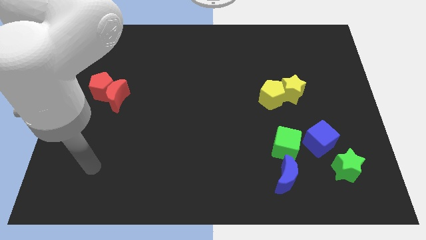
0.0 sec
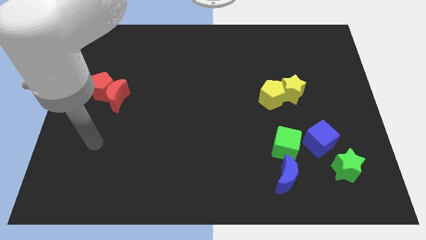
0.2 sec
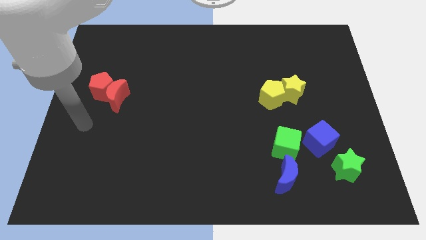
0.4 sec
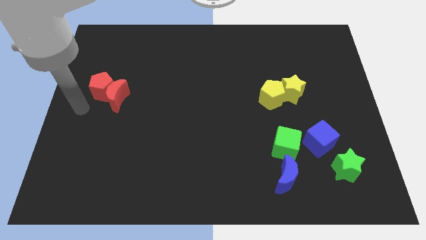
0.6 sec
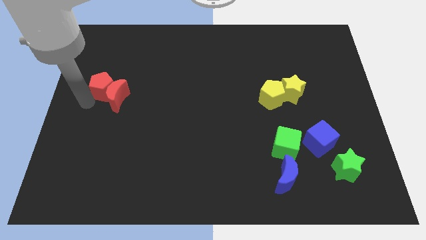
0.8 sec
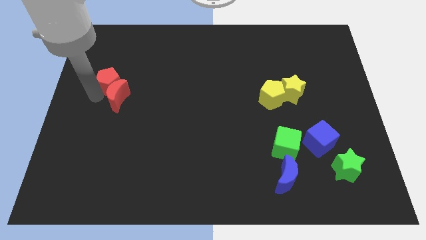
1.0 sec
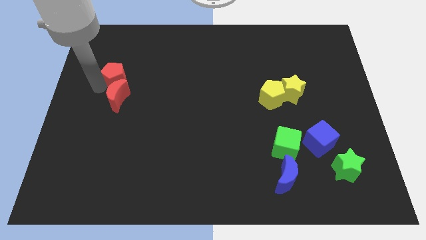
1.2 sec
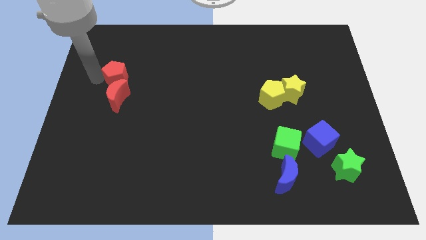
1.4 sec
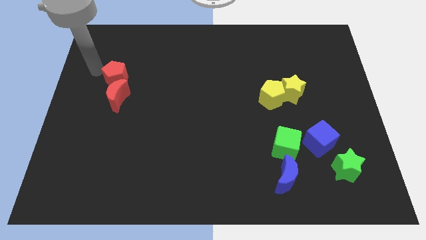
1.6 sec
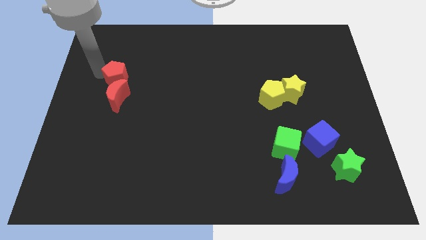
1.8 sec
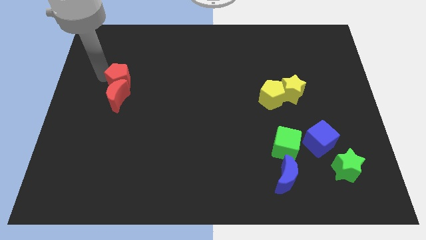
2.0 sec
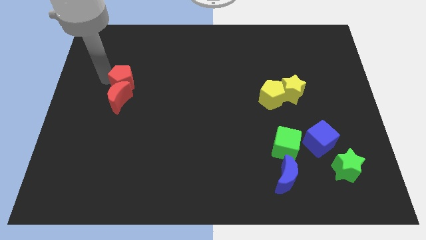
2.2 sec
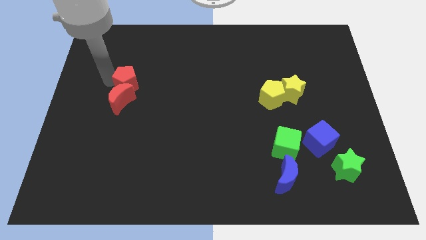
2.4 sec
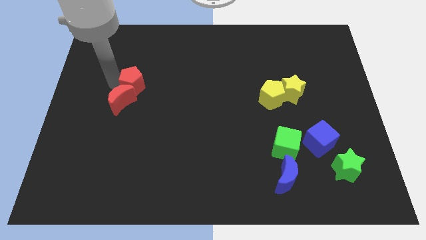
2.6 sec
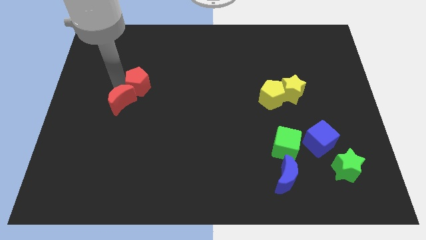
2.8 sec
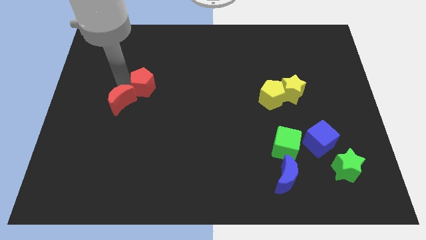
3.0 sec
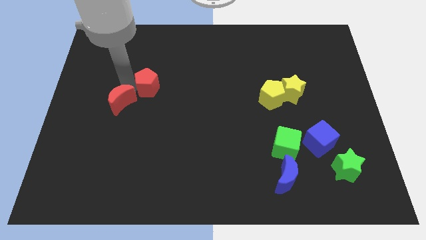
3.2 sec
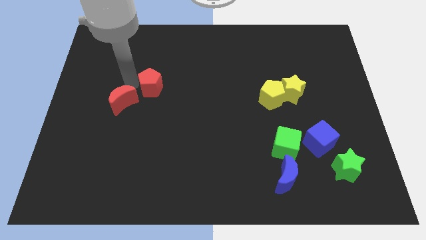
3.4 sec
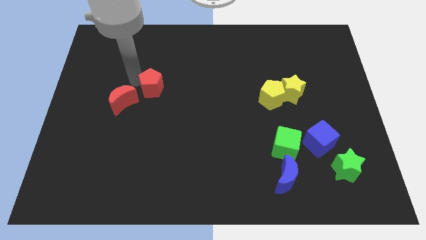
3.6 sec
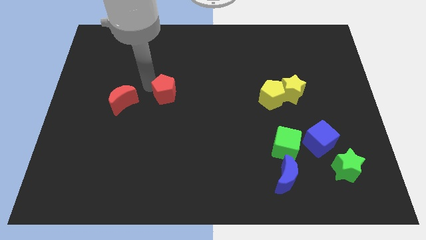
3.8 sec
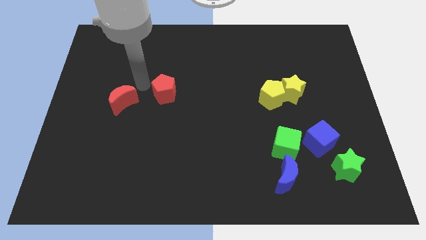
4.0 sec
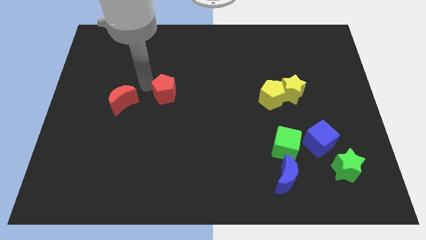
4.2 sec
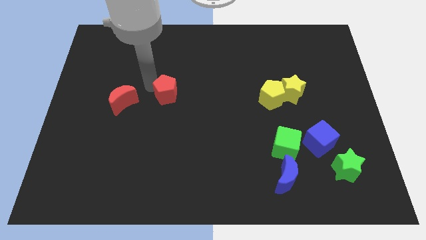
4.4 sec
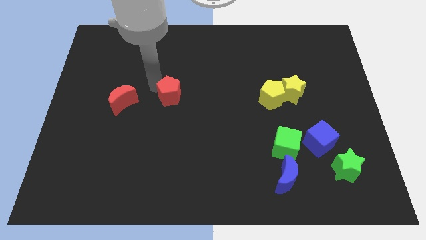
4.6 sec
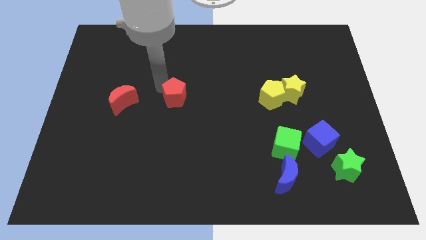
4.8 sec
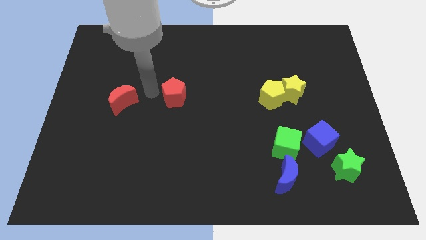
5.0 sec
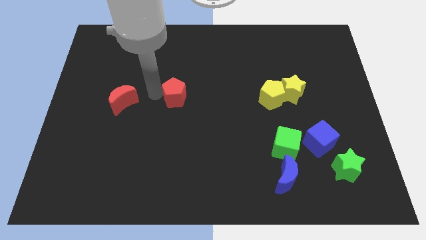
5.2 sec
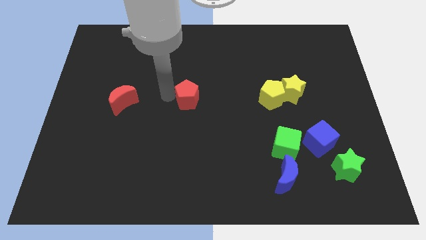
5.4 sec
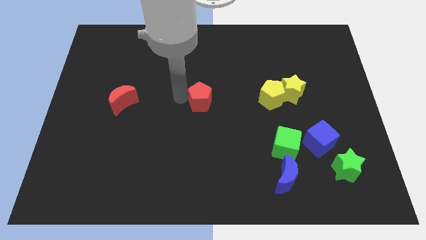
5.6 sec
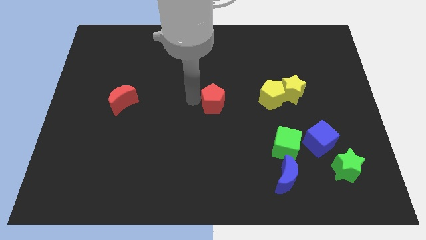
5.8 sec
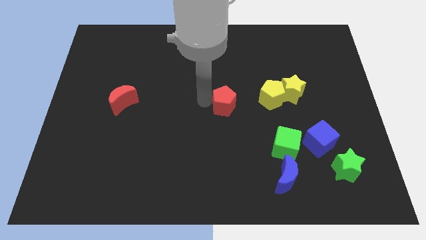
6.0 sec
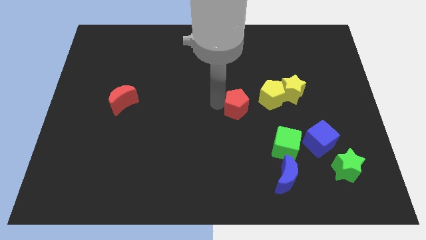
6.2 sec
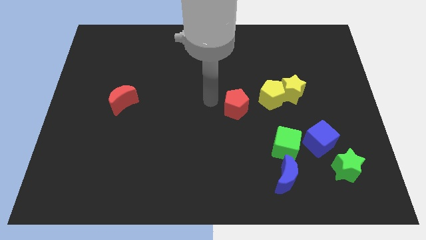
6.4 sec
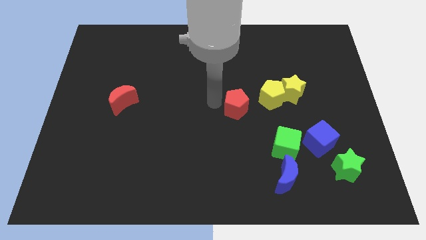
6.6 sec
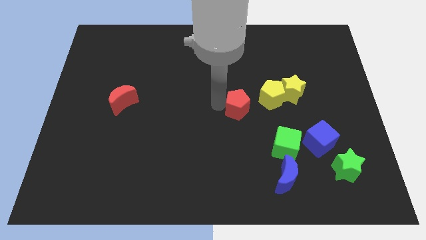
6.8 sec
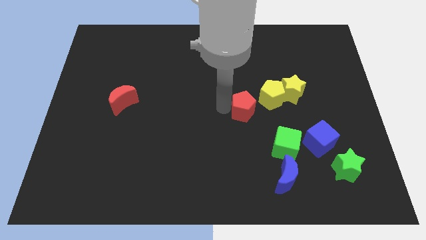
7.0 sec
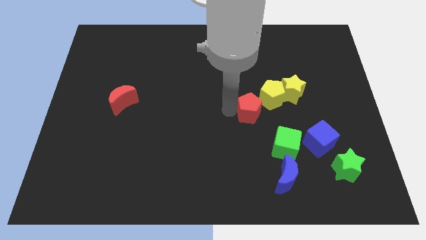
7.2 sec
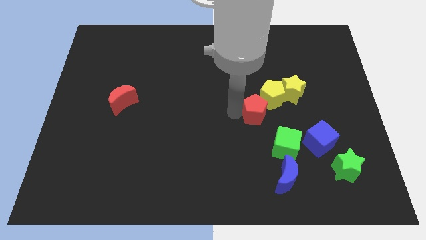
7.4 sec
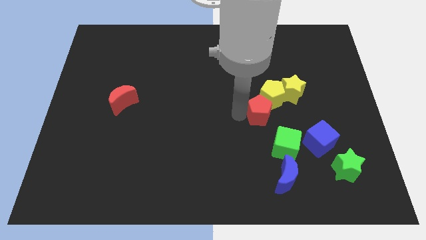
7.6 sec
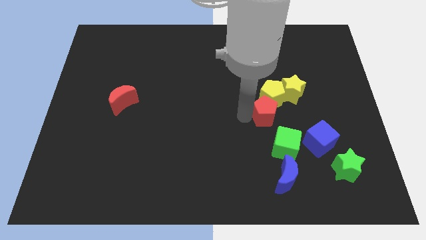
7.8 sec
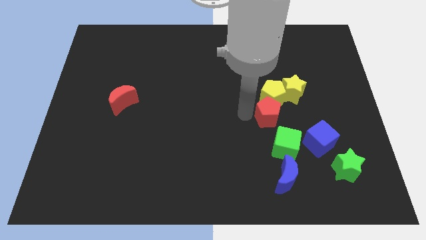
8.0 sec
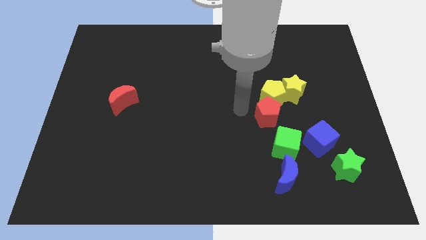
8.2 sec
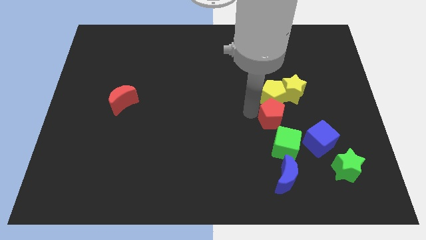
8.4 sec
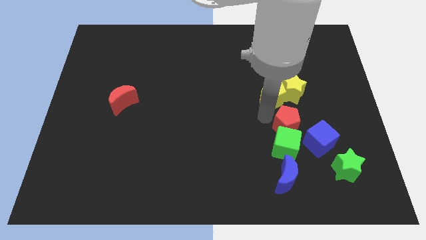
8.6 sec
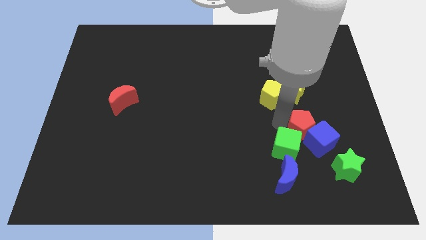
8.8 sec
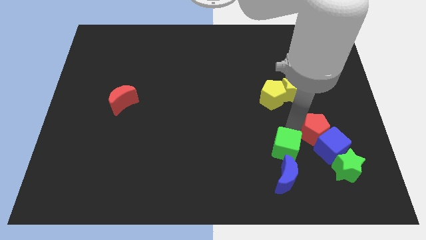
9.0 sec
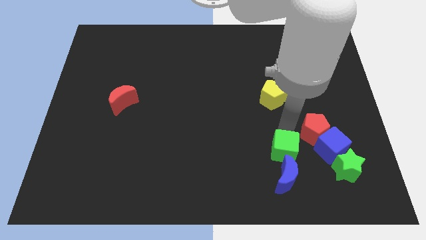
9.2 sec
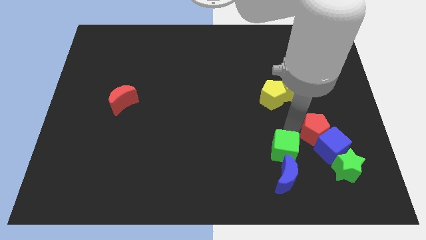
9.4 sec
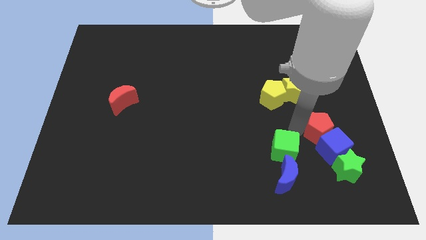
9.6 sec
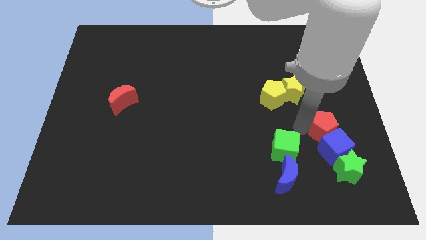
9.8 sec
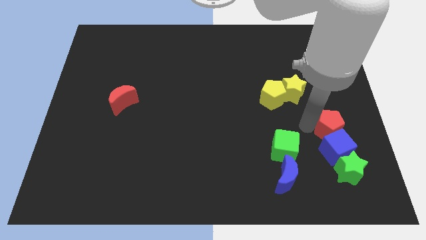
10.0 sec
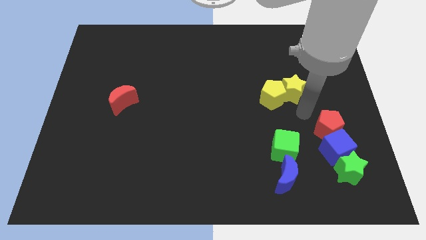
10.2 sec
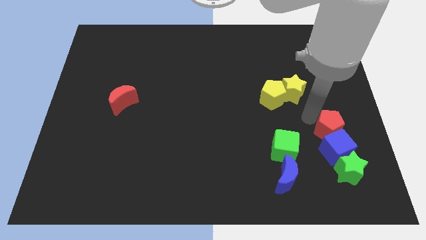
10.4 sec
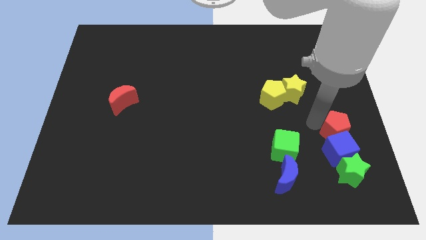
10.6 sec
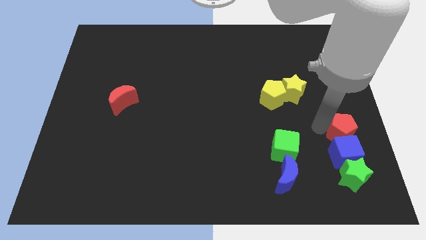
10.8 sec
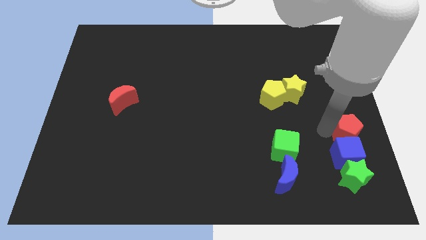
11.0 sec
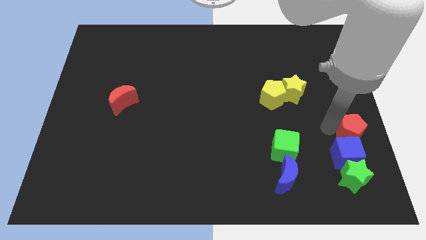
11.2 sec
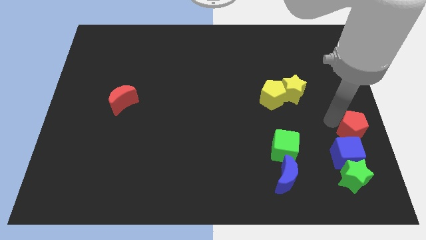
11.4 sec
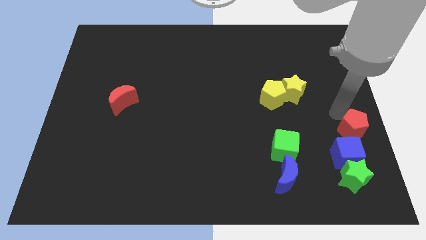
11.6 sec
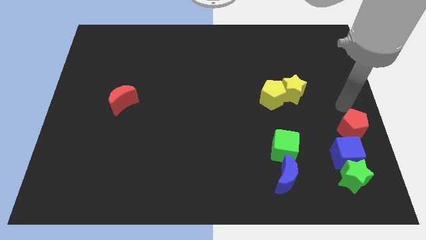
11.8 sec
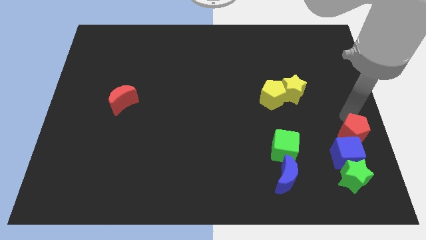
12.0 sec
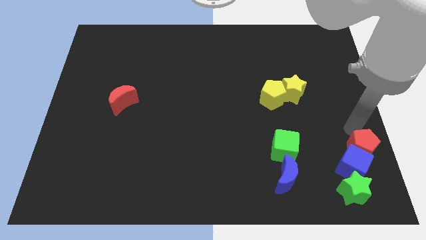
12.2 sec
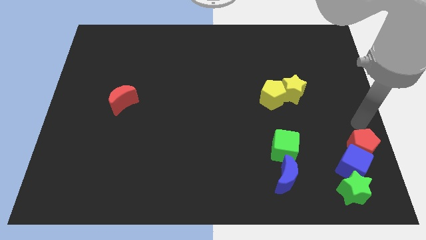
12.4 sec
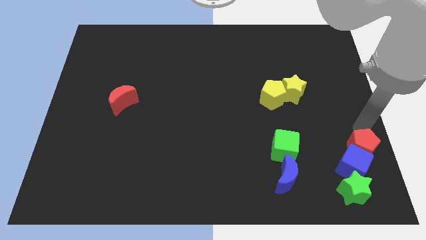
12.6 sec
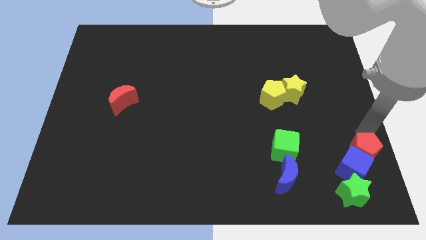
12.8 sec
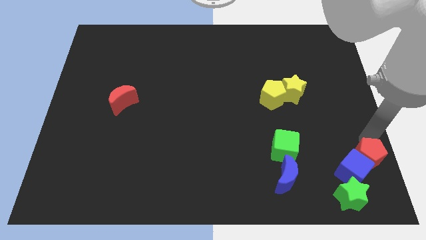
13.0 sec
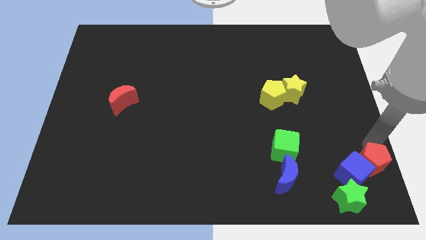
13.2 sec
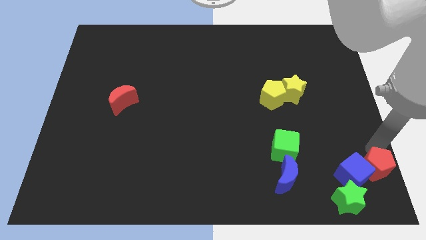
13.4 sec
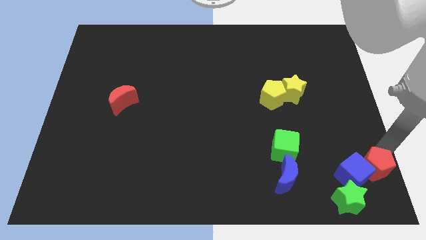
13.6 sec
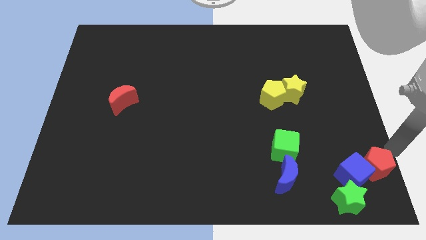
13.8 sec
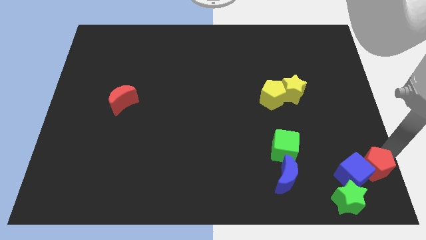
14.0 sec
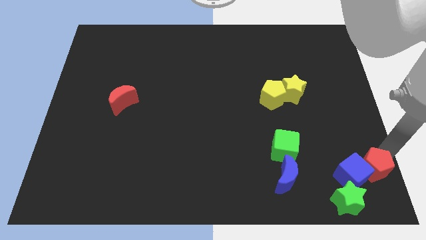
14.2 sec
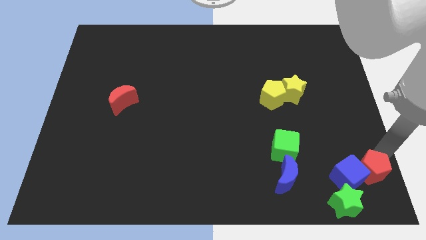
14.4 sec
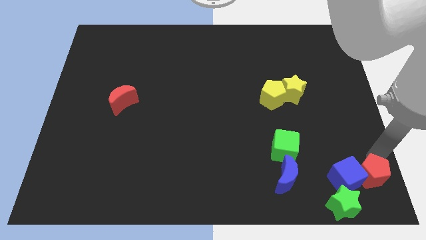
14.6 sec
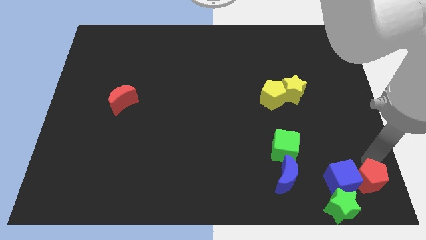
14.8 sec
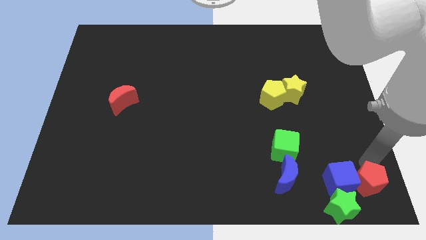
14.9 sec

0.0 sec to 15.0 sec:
slide the red pentagon right of the blue moon
